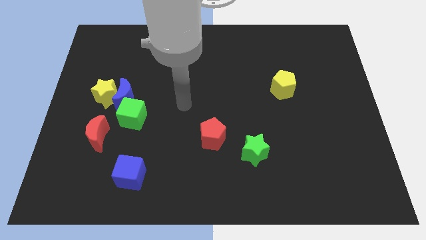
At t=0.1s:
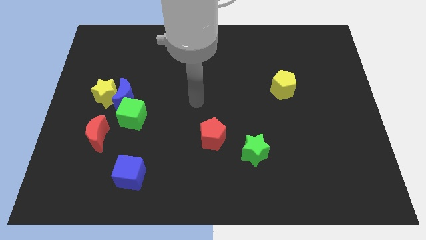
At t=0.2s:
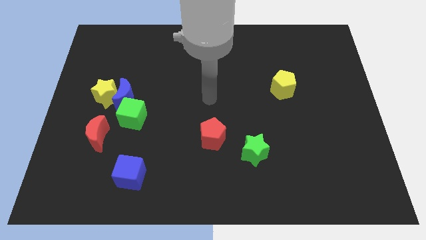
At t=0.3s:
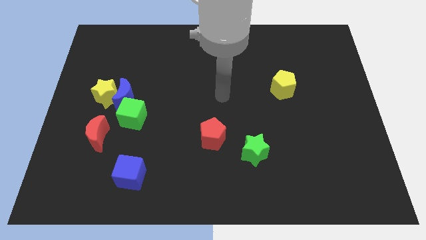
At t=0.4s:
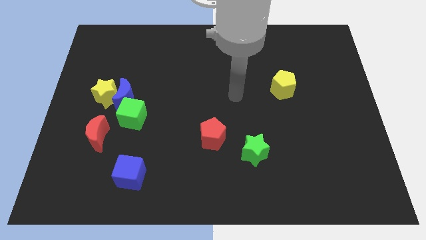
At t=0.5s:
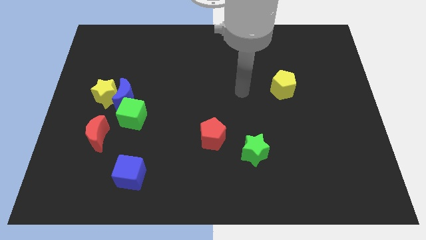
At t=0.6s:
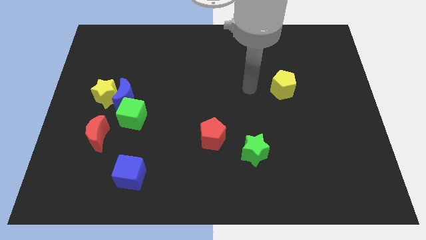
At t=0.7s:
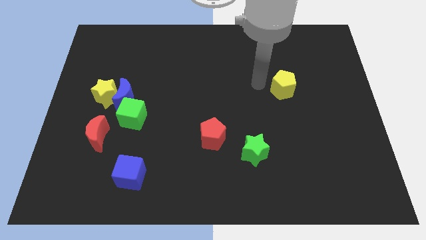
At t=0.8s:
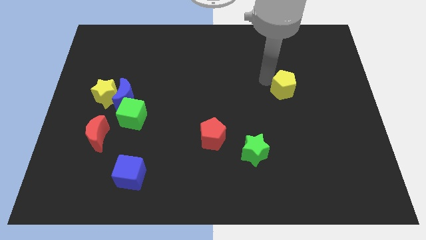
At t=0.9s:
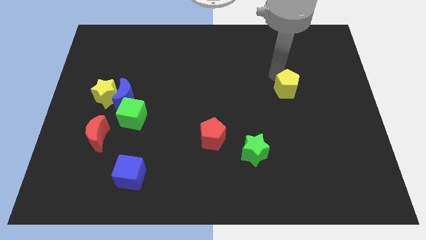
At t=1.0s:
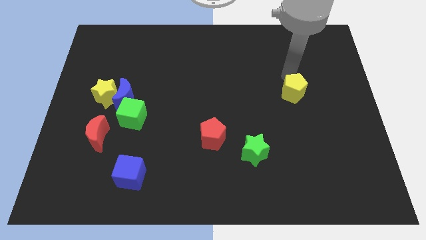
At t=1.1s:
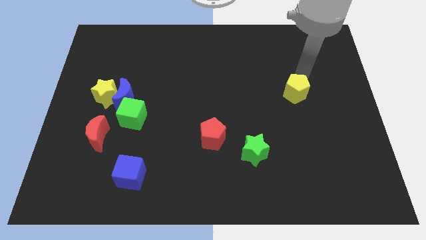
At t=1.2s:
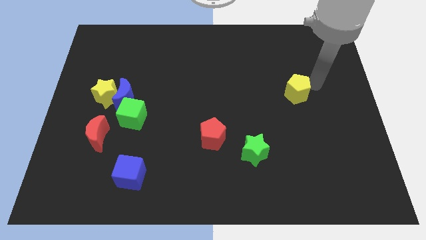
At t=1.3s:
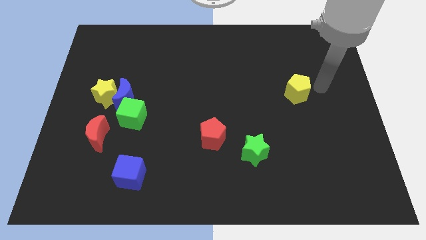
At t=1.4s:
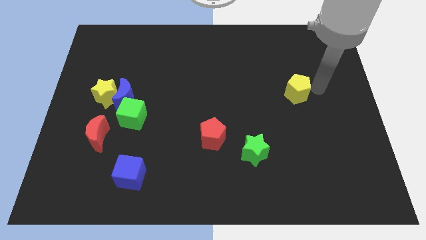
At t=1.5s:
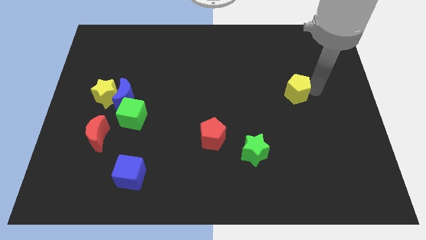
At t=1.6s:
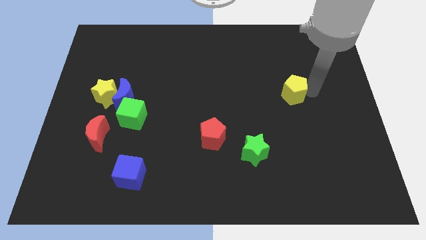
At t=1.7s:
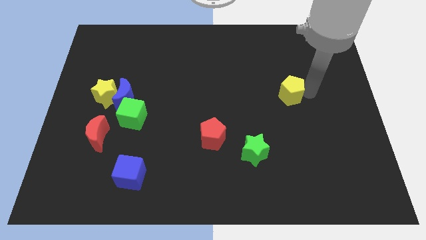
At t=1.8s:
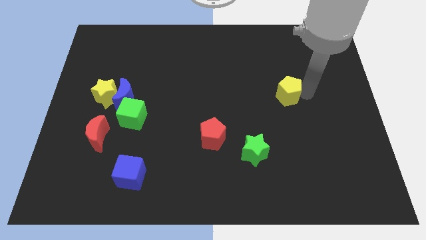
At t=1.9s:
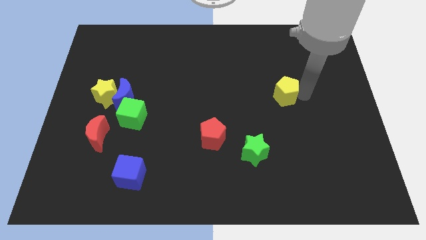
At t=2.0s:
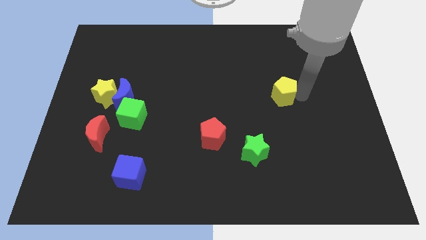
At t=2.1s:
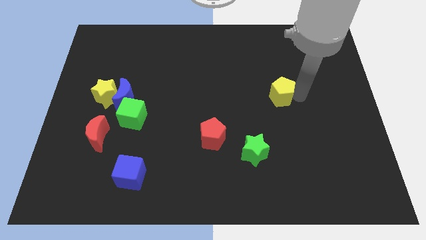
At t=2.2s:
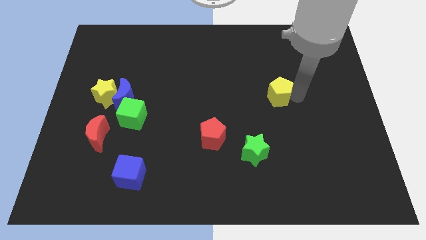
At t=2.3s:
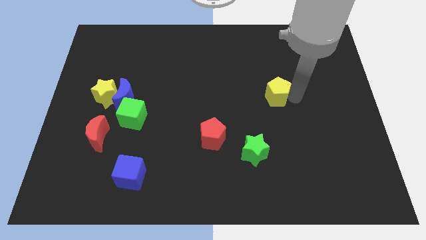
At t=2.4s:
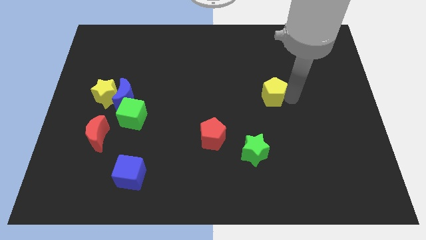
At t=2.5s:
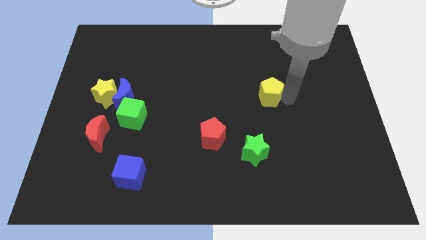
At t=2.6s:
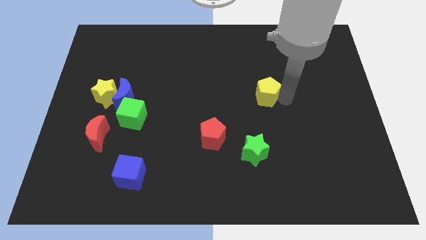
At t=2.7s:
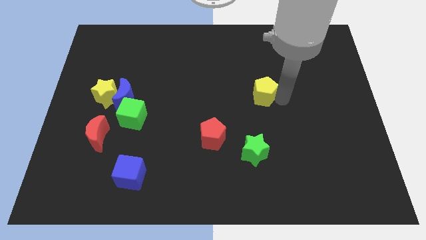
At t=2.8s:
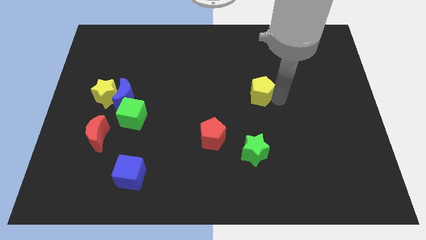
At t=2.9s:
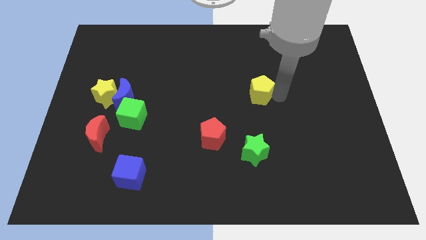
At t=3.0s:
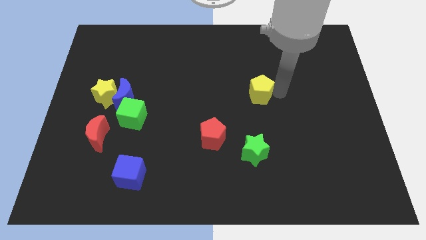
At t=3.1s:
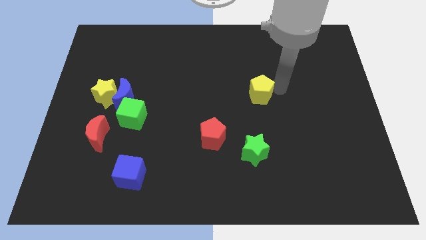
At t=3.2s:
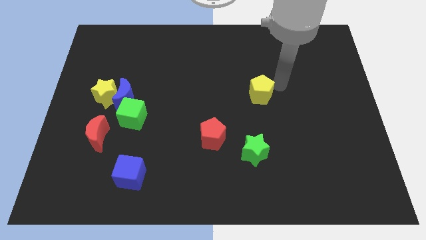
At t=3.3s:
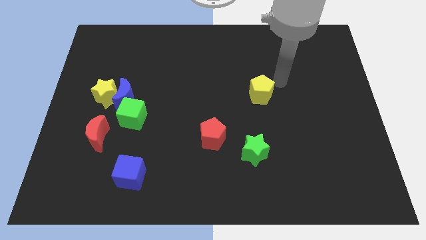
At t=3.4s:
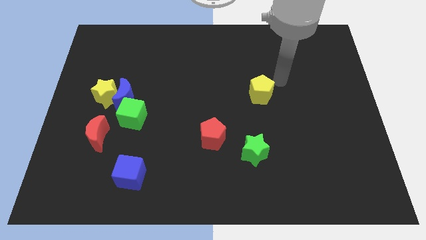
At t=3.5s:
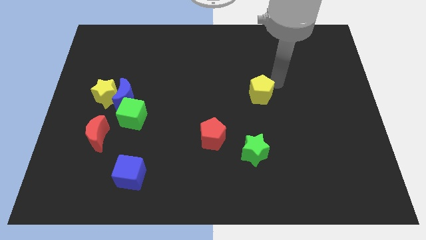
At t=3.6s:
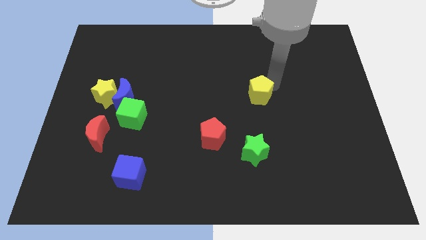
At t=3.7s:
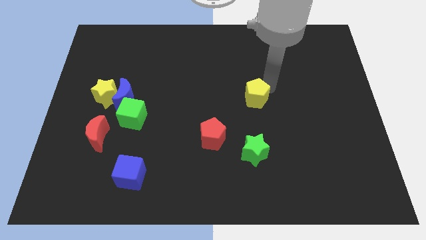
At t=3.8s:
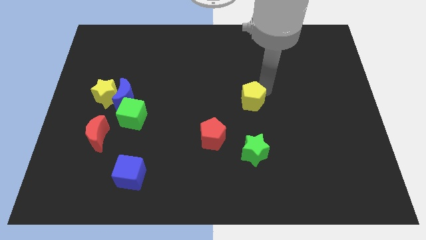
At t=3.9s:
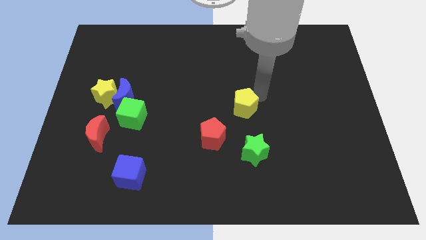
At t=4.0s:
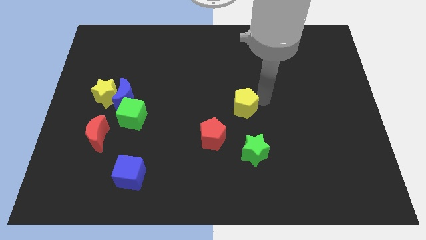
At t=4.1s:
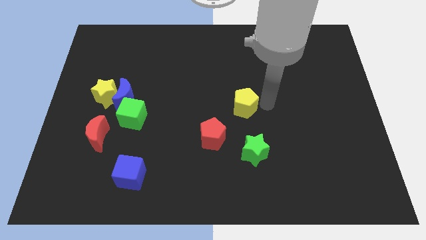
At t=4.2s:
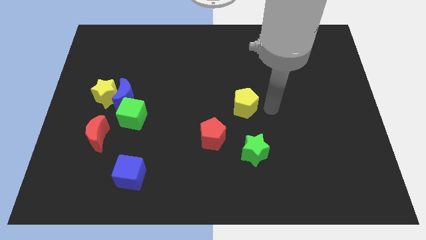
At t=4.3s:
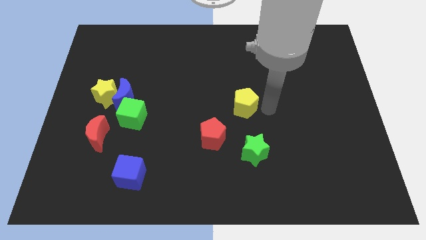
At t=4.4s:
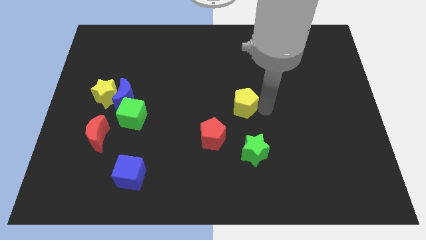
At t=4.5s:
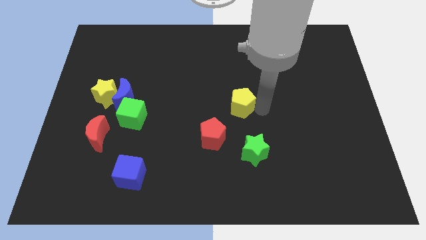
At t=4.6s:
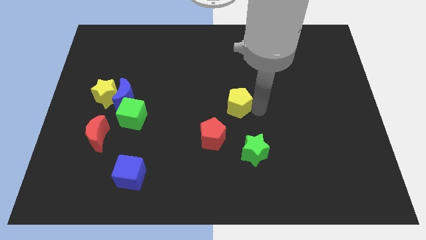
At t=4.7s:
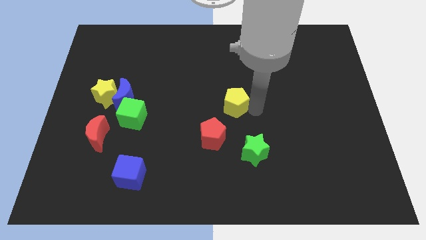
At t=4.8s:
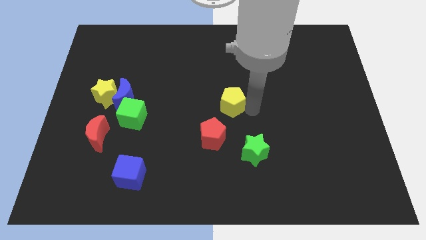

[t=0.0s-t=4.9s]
slide the yellow pentagon above the red pentagon

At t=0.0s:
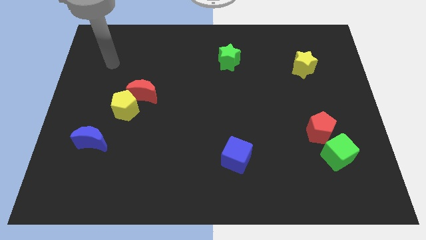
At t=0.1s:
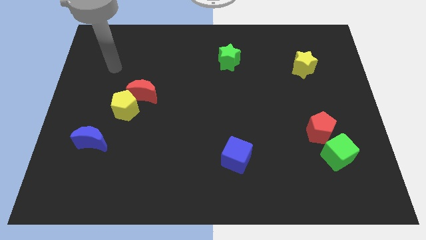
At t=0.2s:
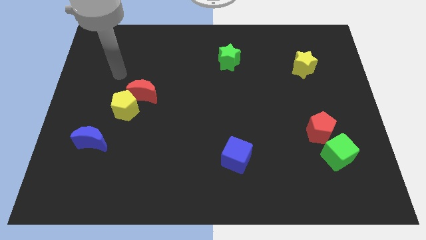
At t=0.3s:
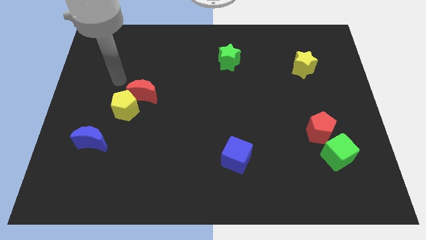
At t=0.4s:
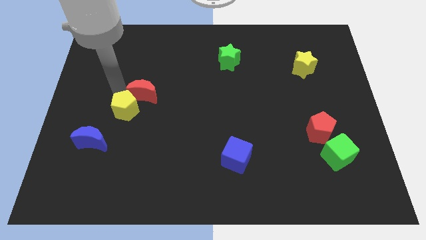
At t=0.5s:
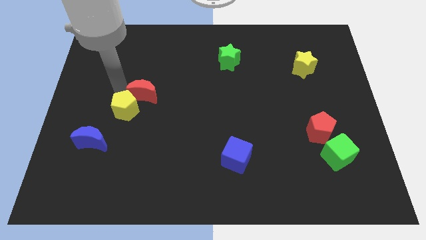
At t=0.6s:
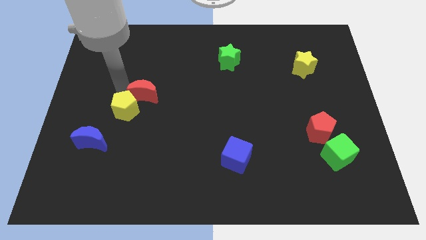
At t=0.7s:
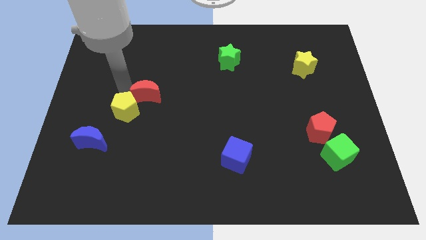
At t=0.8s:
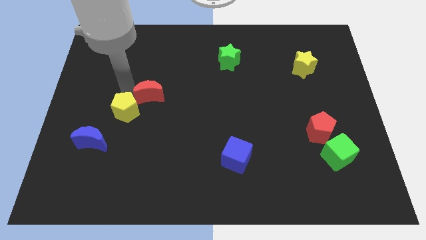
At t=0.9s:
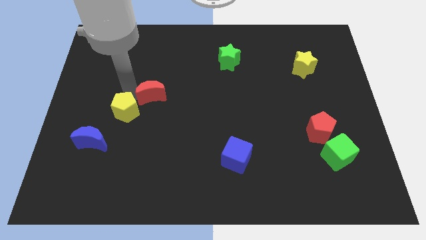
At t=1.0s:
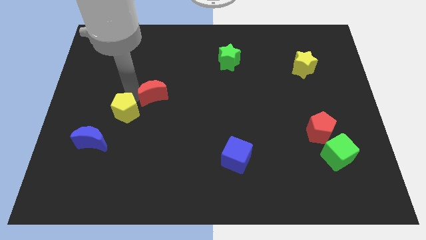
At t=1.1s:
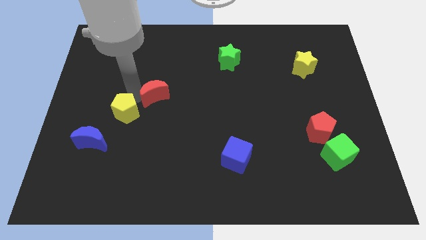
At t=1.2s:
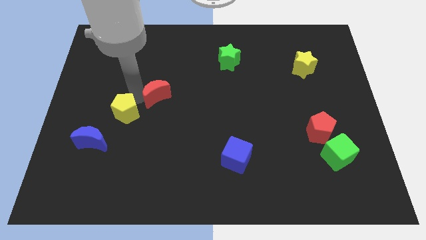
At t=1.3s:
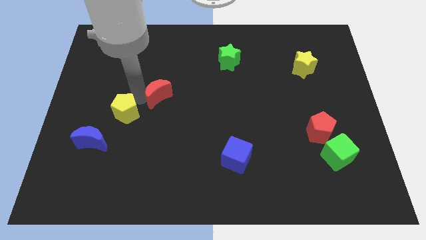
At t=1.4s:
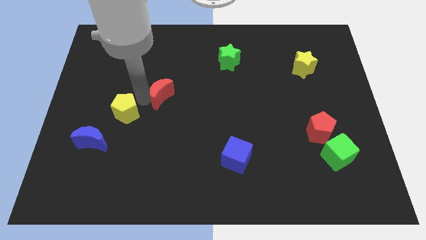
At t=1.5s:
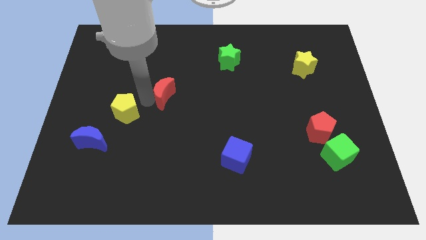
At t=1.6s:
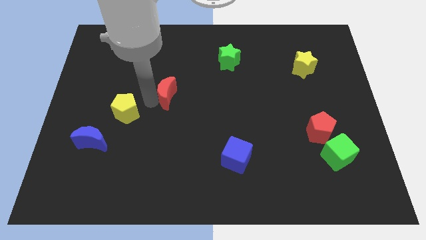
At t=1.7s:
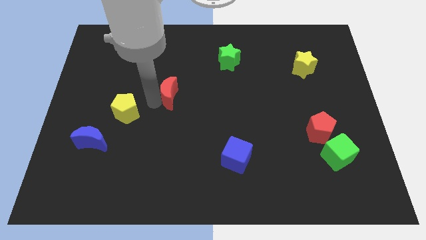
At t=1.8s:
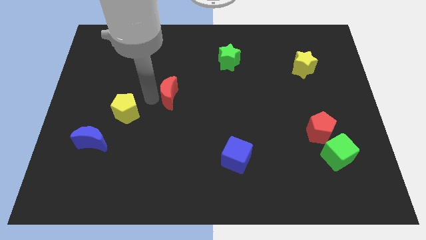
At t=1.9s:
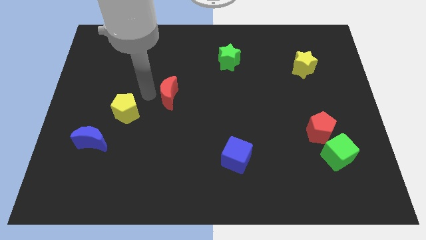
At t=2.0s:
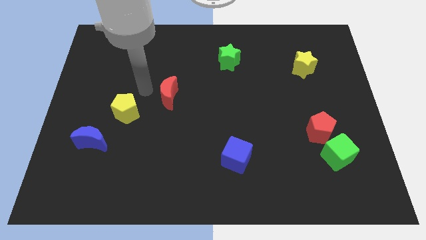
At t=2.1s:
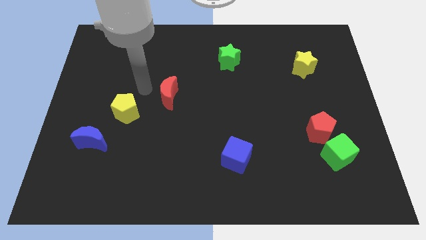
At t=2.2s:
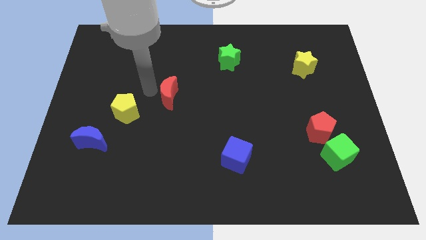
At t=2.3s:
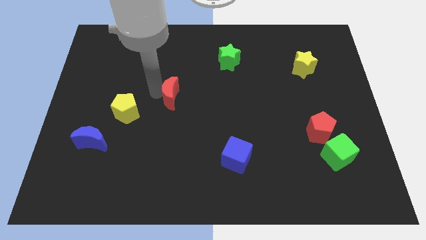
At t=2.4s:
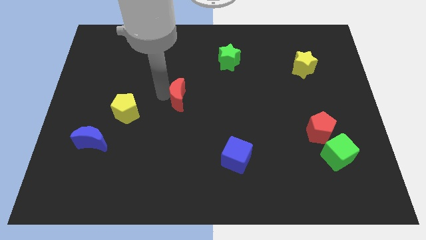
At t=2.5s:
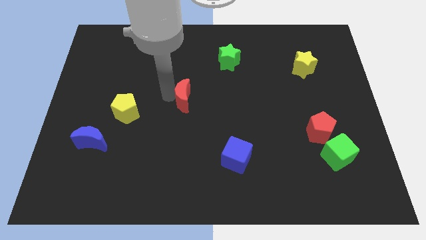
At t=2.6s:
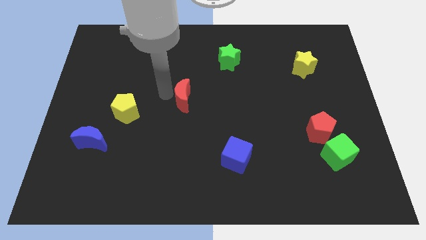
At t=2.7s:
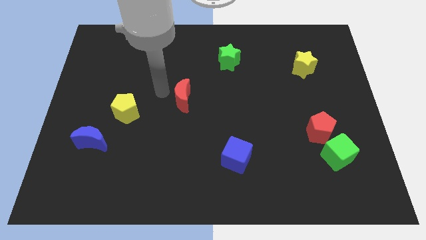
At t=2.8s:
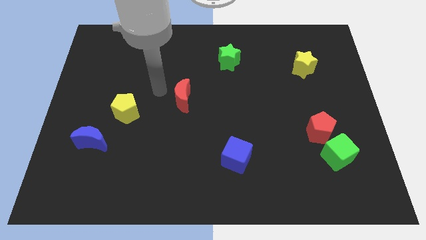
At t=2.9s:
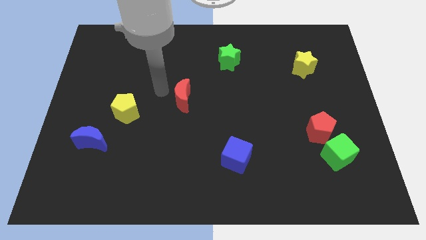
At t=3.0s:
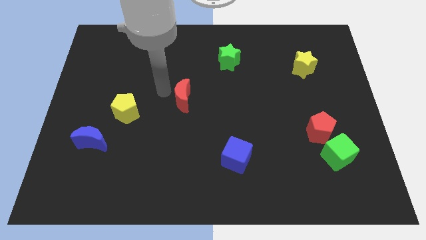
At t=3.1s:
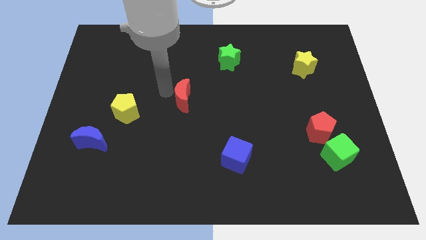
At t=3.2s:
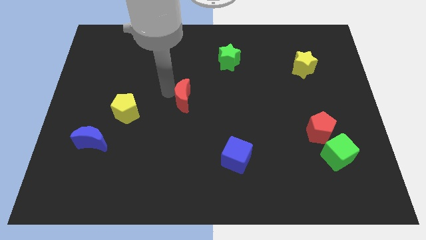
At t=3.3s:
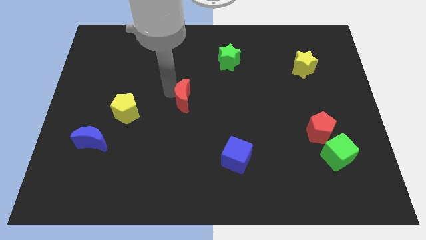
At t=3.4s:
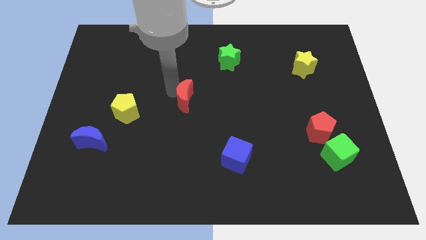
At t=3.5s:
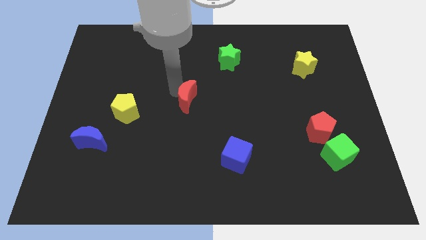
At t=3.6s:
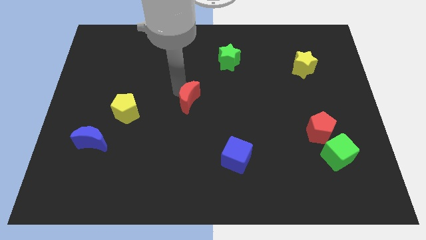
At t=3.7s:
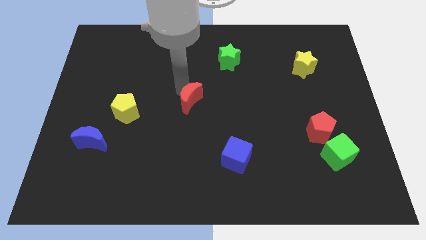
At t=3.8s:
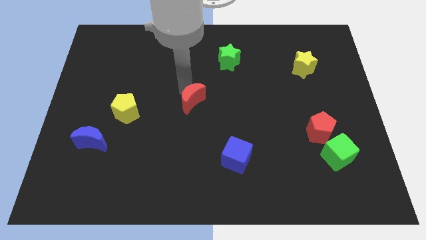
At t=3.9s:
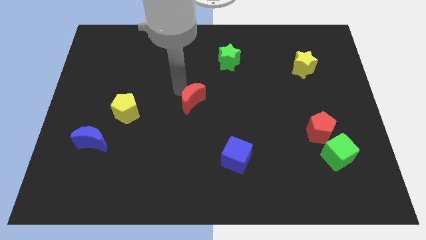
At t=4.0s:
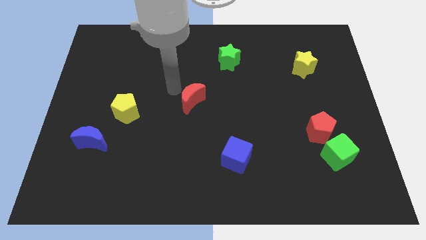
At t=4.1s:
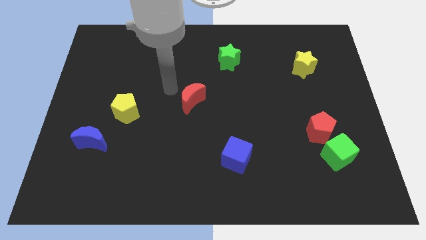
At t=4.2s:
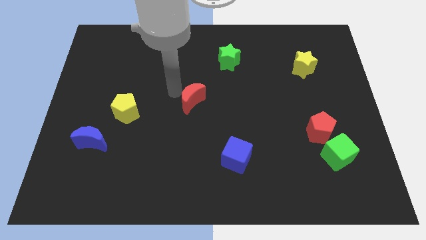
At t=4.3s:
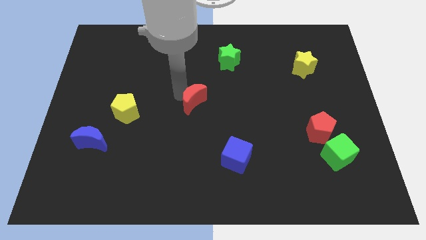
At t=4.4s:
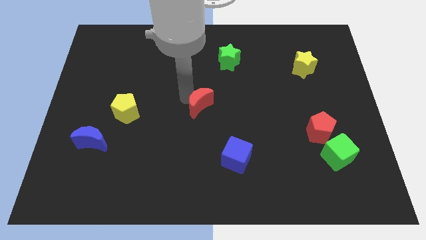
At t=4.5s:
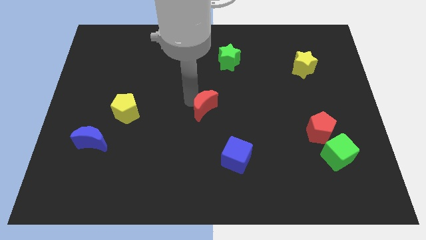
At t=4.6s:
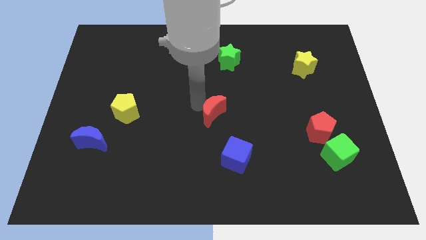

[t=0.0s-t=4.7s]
move the red moon to the top side of the blue cube
